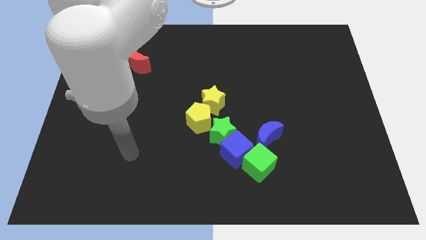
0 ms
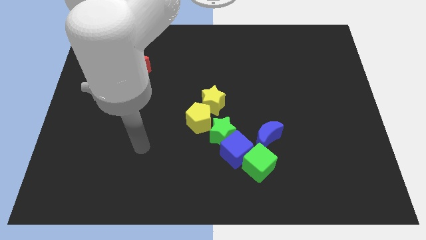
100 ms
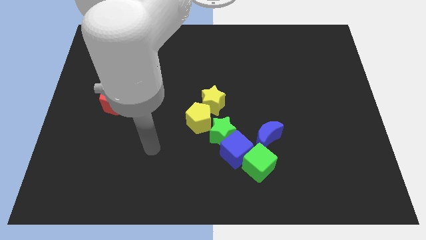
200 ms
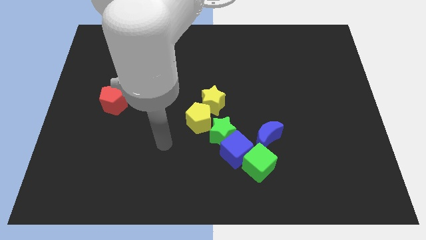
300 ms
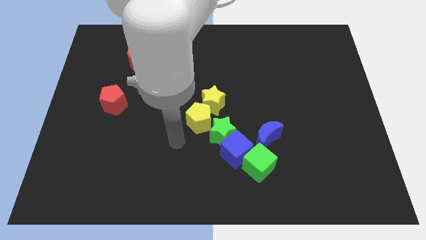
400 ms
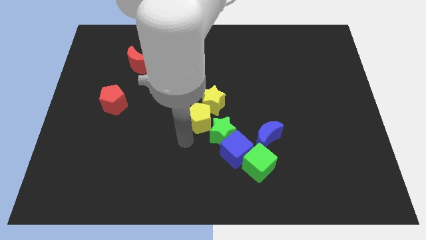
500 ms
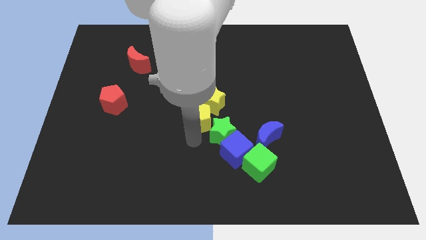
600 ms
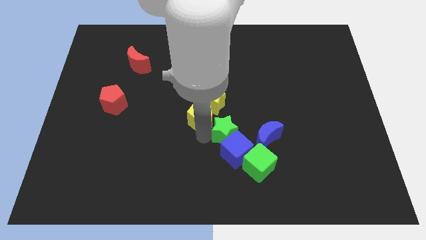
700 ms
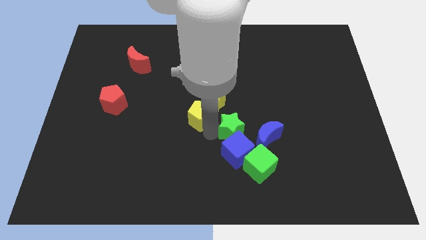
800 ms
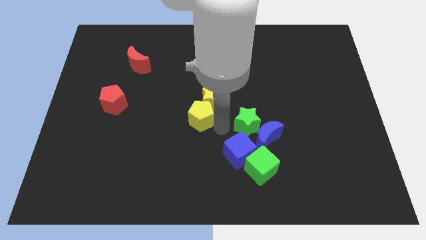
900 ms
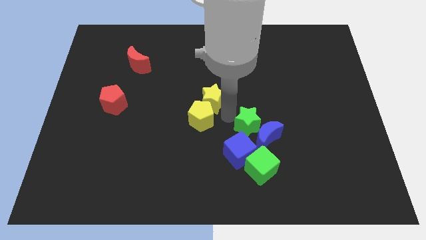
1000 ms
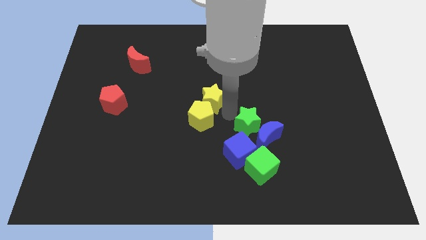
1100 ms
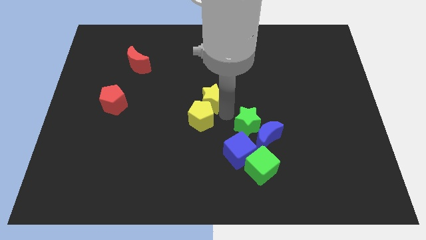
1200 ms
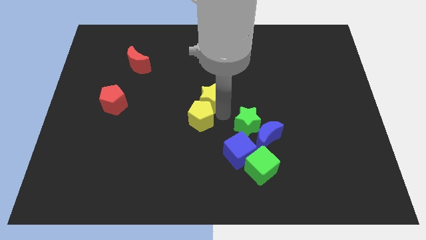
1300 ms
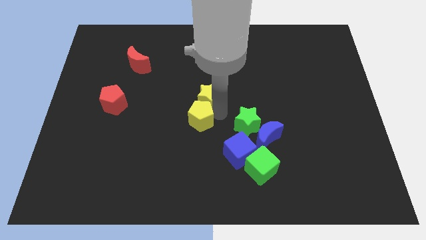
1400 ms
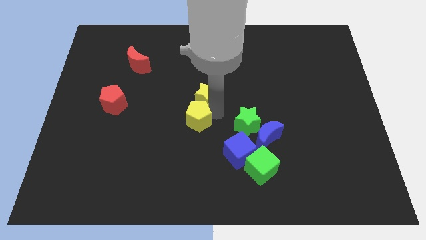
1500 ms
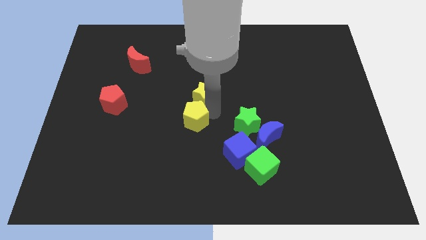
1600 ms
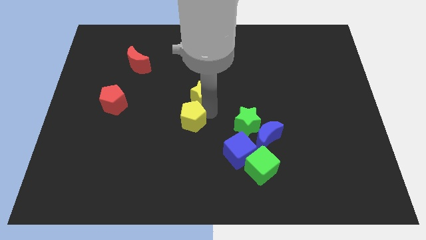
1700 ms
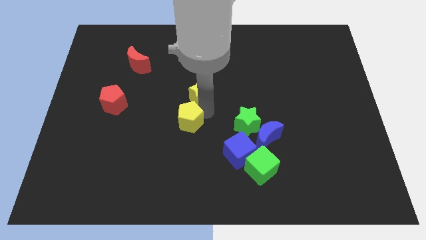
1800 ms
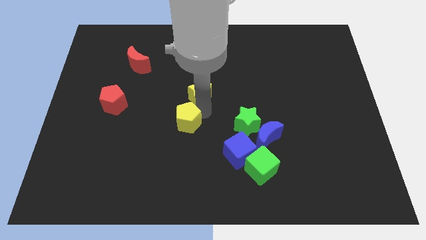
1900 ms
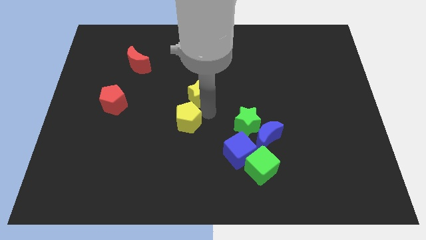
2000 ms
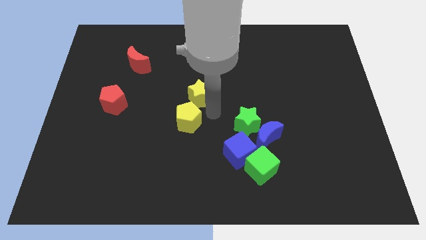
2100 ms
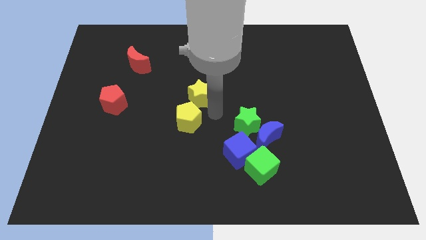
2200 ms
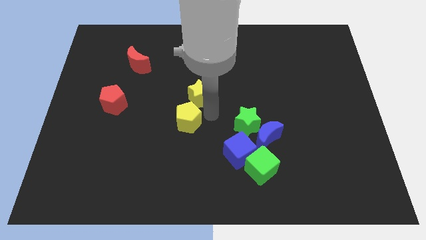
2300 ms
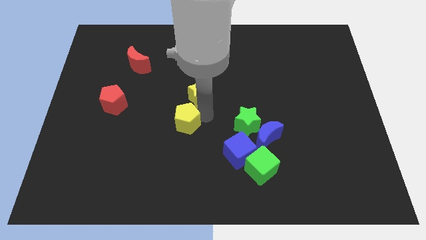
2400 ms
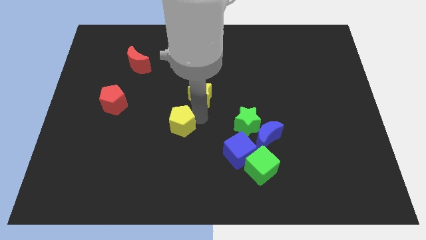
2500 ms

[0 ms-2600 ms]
separate the yellow pentagon from the yellow star and green star

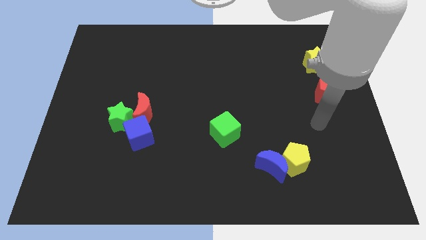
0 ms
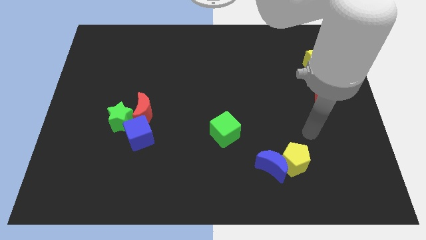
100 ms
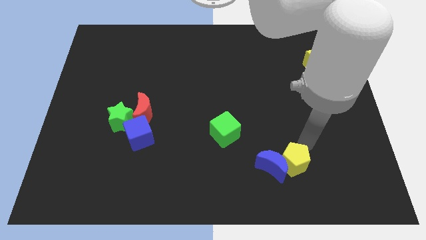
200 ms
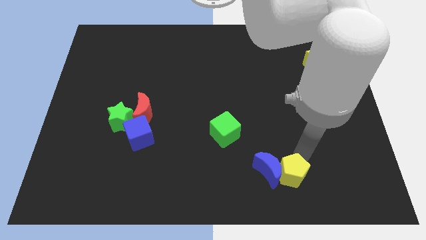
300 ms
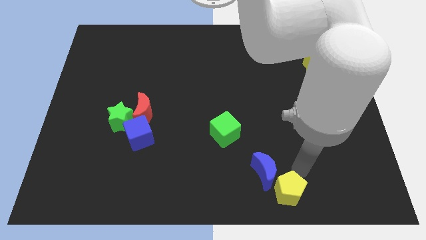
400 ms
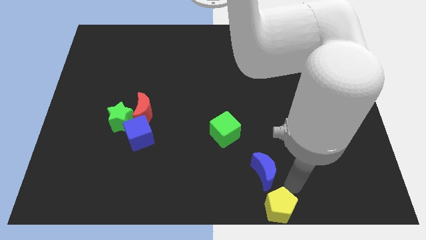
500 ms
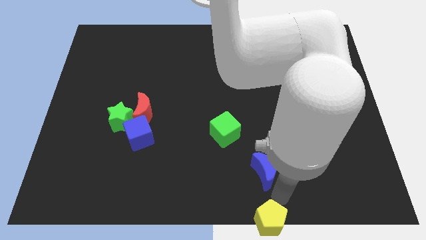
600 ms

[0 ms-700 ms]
pull the blue moon apart from the yellow pentagon

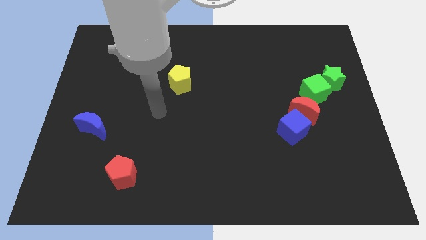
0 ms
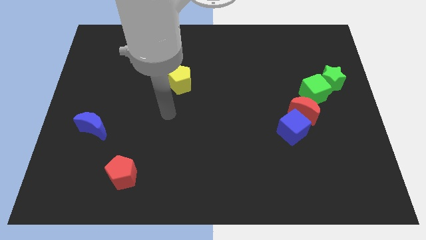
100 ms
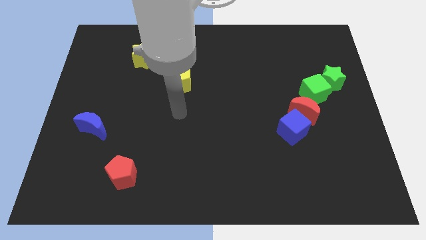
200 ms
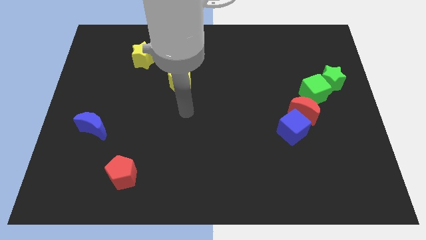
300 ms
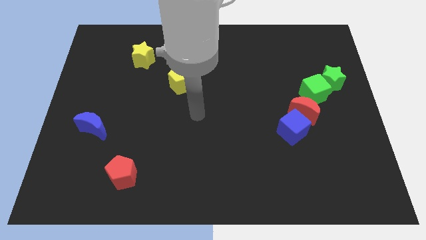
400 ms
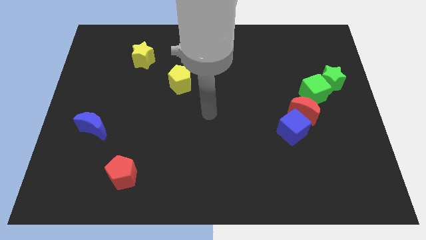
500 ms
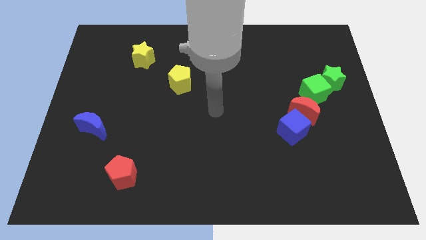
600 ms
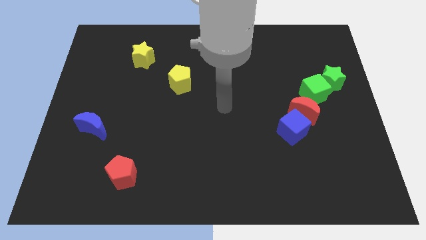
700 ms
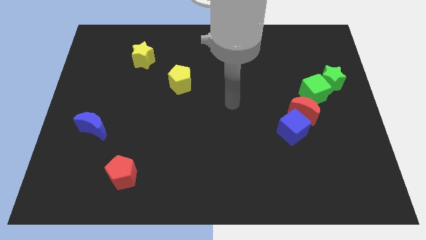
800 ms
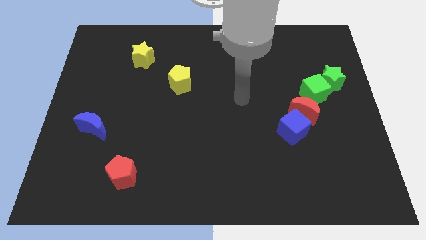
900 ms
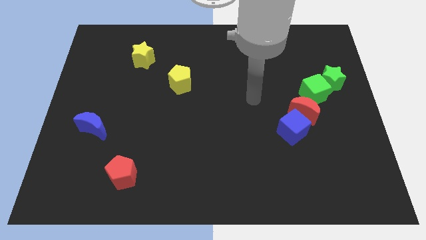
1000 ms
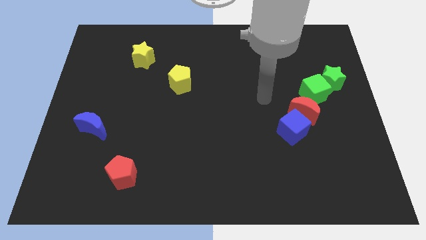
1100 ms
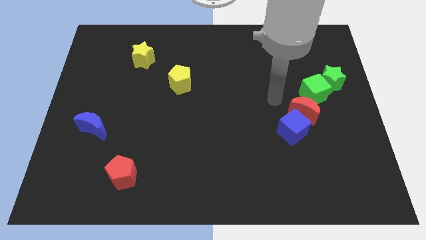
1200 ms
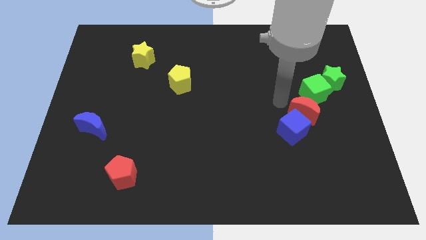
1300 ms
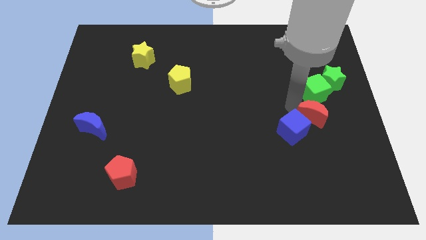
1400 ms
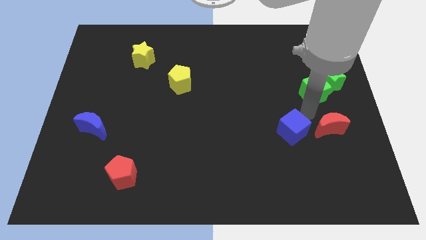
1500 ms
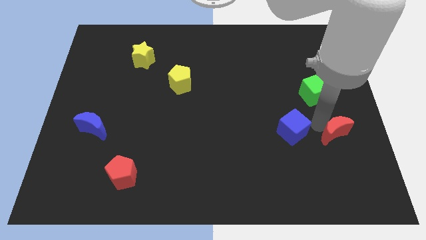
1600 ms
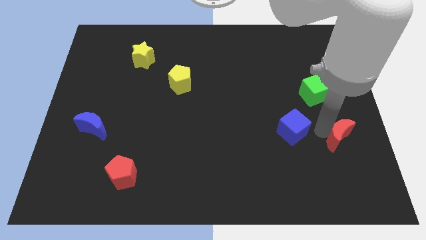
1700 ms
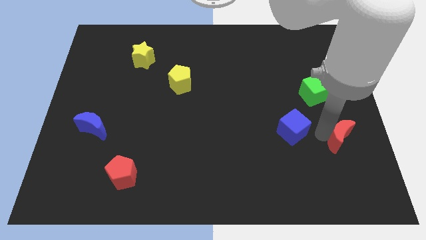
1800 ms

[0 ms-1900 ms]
pull the blue cube apart from the red moon

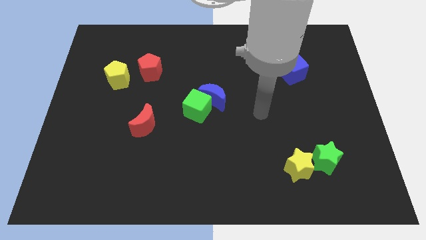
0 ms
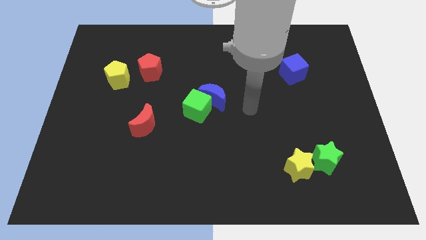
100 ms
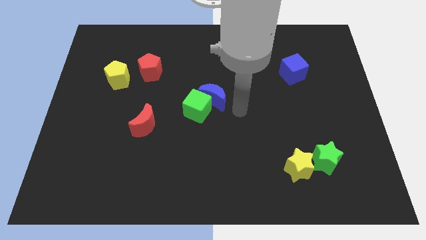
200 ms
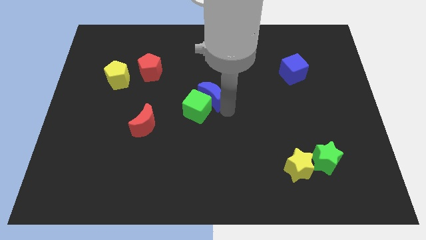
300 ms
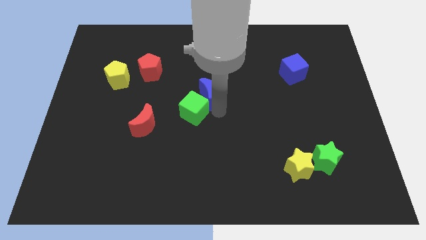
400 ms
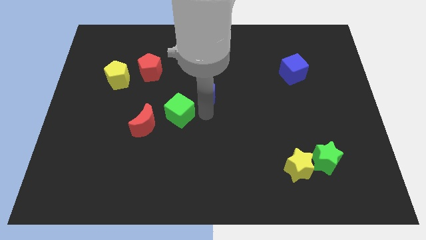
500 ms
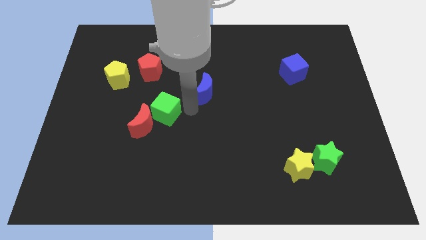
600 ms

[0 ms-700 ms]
separate the blue moon from the green cube

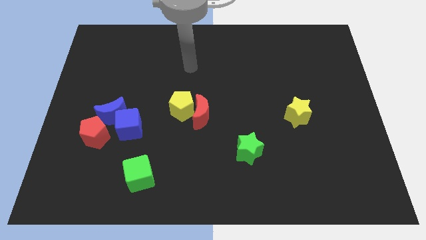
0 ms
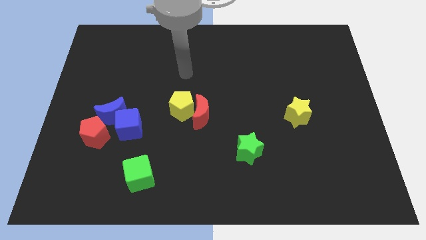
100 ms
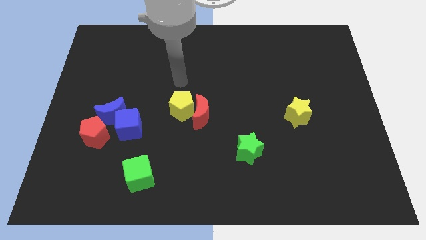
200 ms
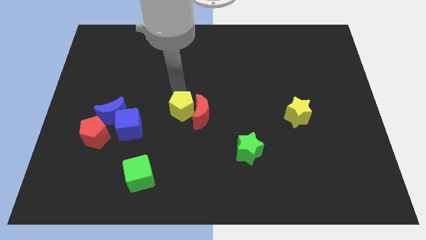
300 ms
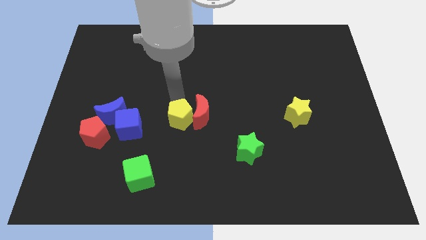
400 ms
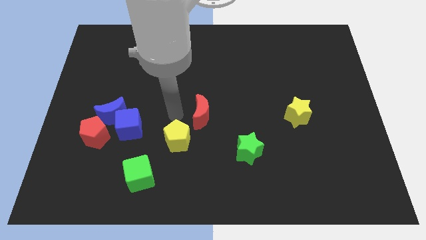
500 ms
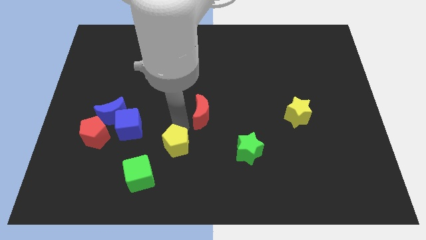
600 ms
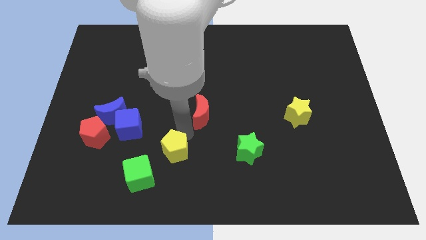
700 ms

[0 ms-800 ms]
pull the red moon apart from the yellow pentagon

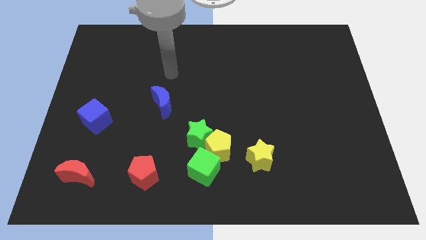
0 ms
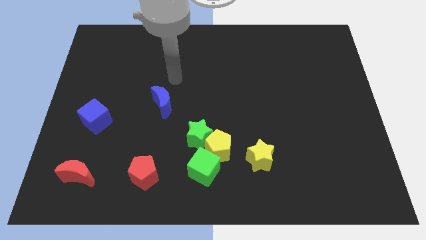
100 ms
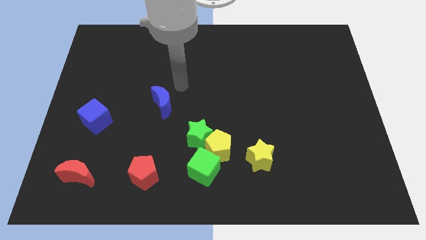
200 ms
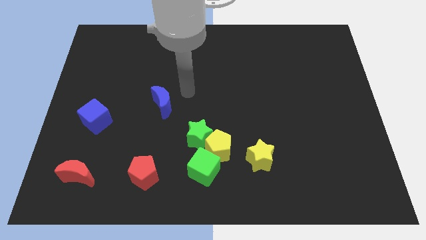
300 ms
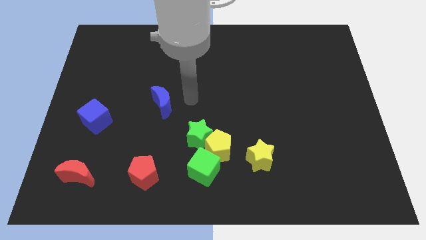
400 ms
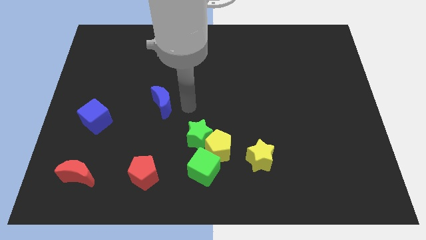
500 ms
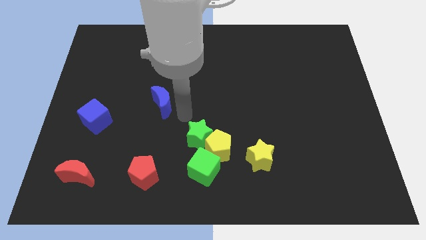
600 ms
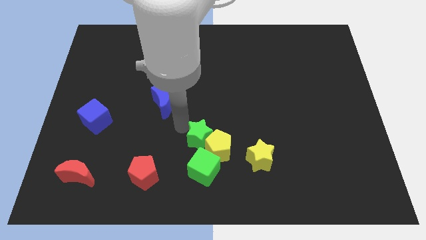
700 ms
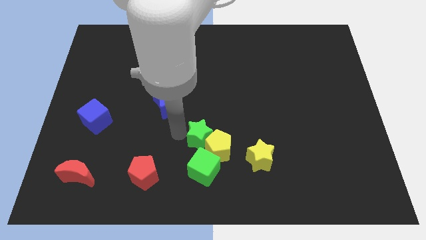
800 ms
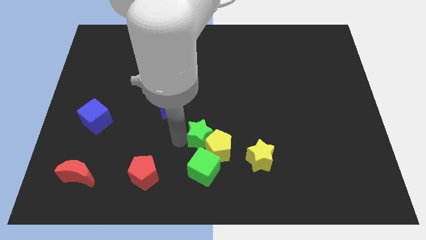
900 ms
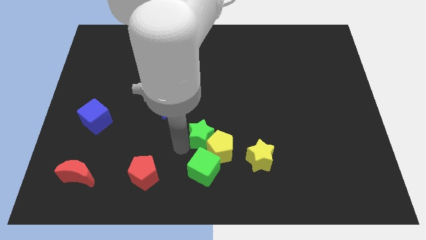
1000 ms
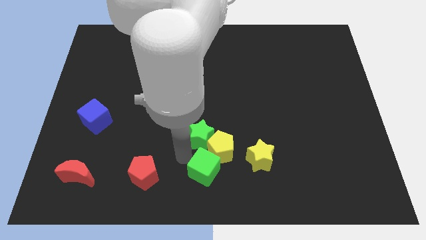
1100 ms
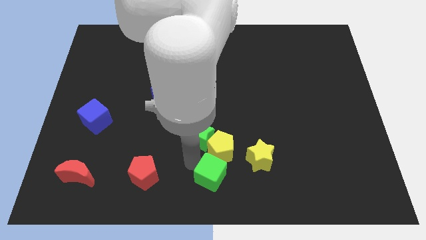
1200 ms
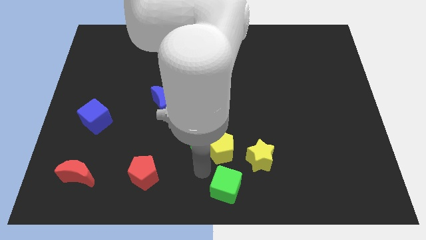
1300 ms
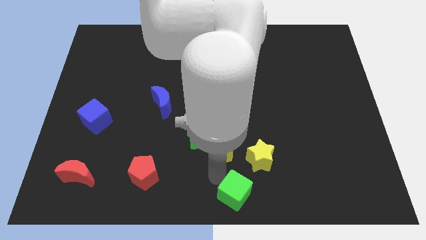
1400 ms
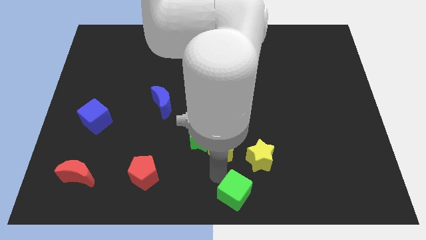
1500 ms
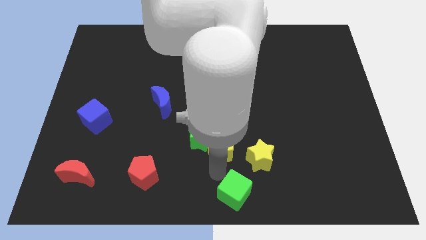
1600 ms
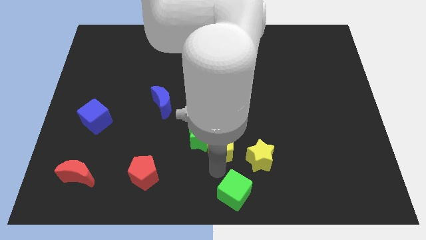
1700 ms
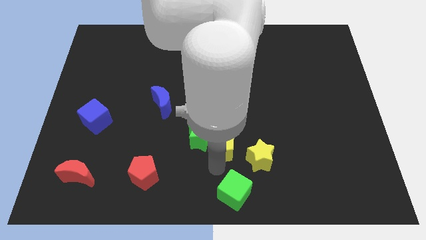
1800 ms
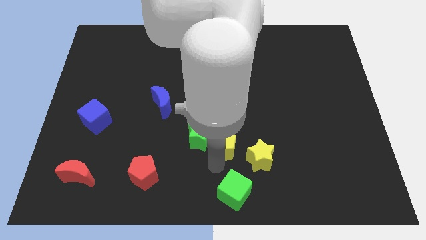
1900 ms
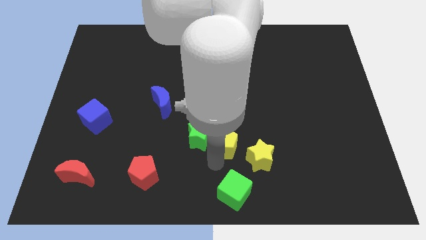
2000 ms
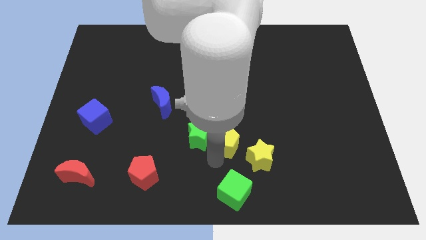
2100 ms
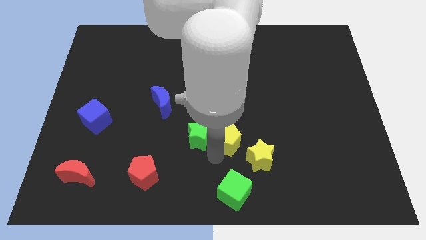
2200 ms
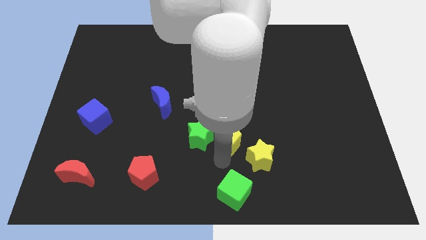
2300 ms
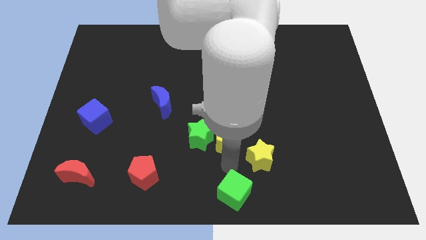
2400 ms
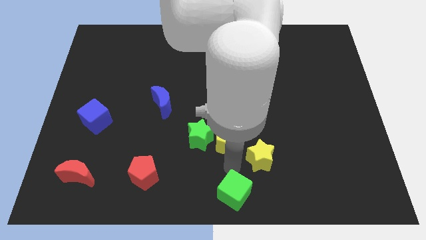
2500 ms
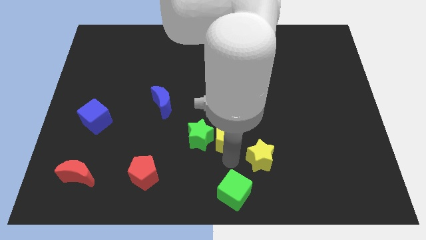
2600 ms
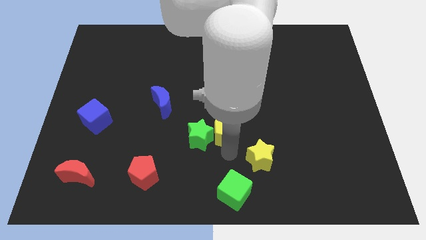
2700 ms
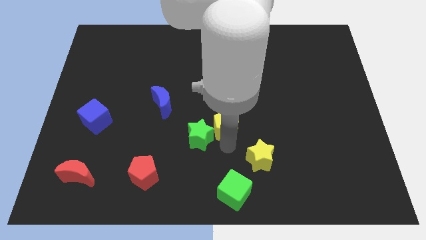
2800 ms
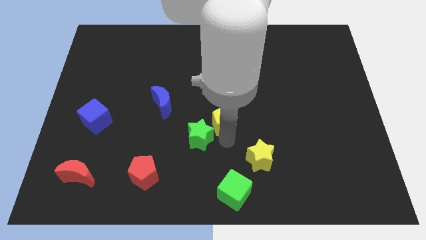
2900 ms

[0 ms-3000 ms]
separate the yellow pentagon from the green star, green cube, and yellow star
